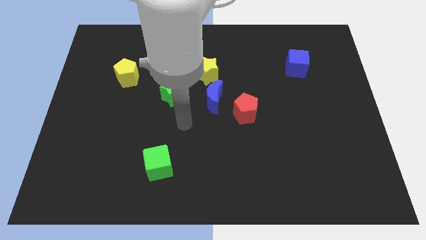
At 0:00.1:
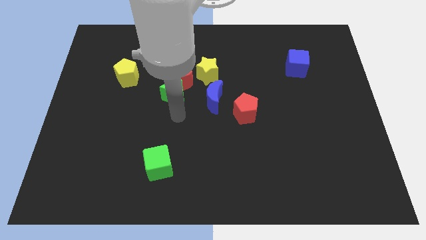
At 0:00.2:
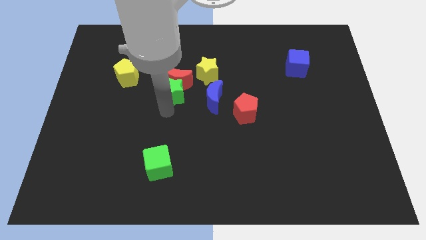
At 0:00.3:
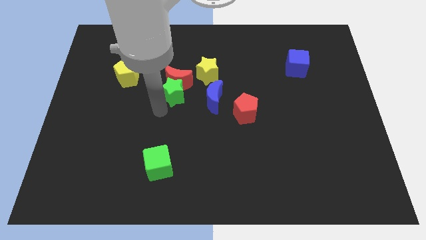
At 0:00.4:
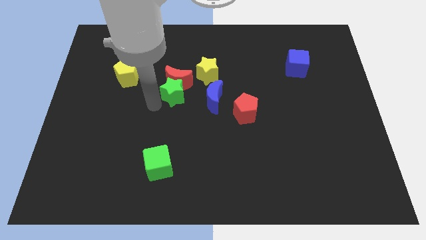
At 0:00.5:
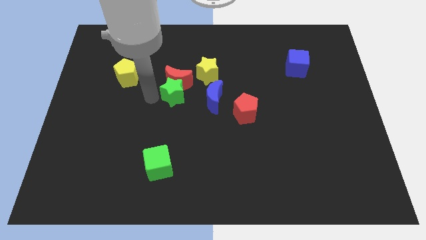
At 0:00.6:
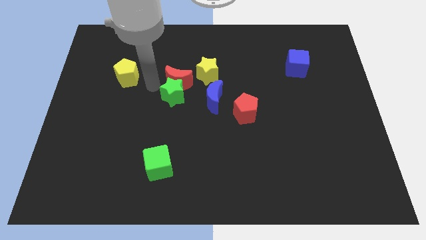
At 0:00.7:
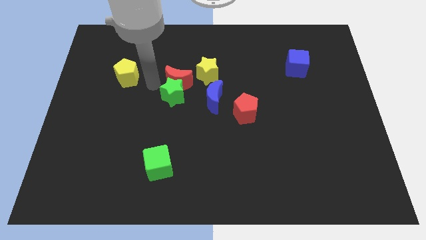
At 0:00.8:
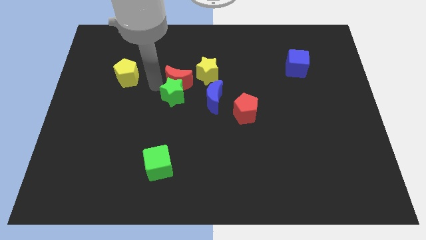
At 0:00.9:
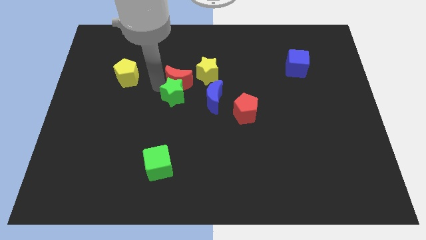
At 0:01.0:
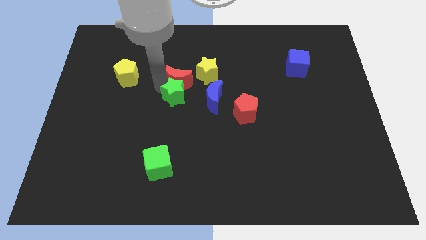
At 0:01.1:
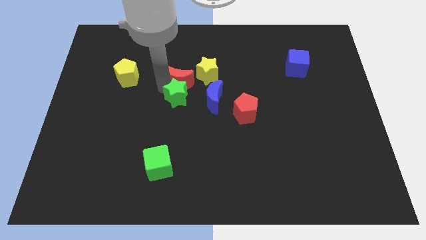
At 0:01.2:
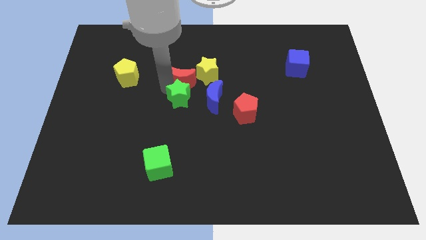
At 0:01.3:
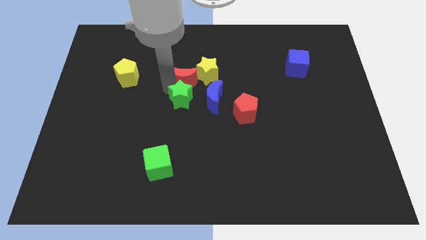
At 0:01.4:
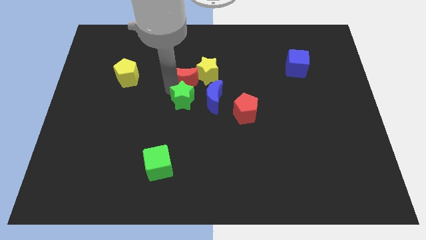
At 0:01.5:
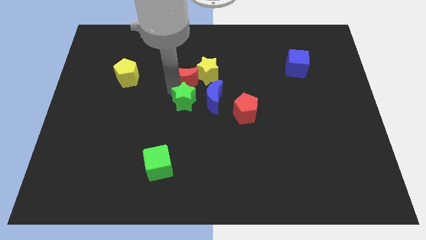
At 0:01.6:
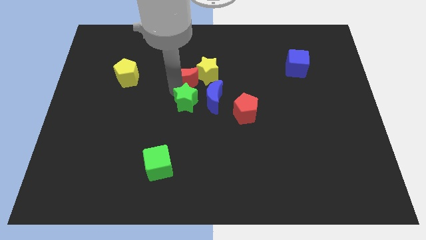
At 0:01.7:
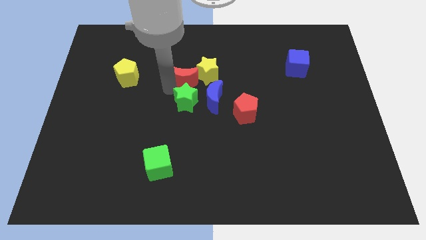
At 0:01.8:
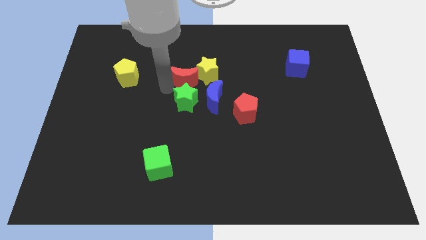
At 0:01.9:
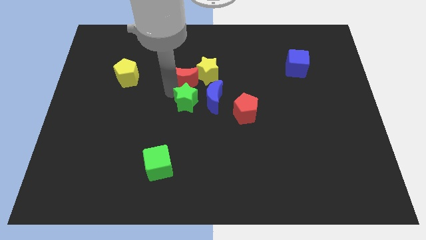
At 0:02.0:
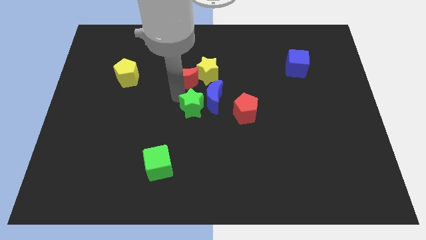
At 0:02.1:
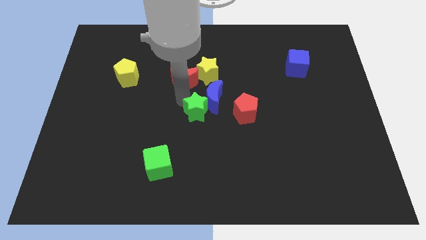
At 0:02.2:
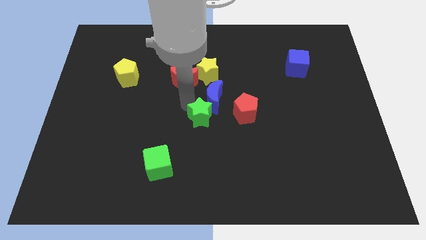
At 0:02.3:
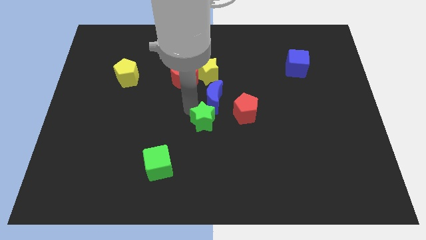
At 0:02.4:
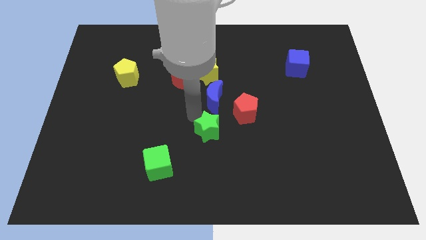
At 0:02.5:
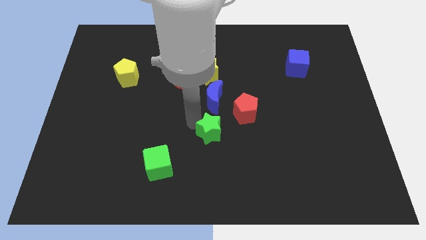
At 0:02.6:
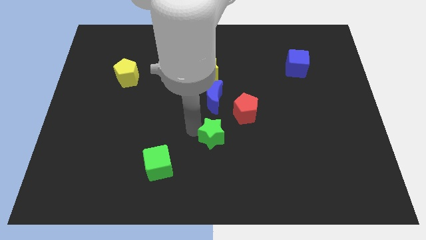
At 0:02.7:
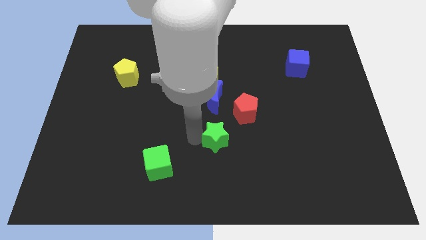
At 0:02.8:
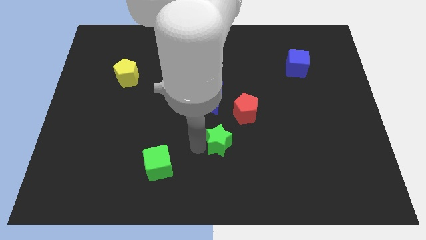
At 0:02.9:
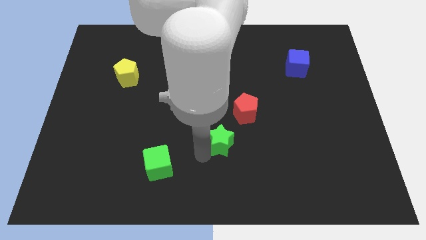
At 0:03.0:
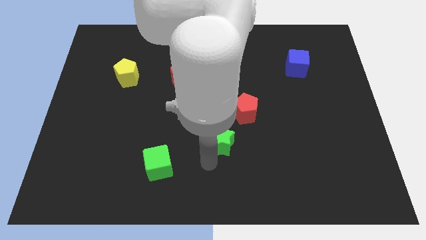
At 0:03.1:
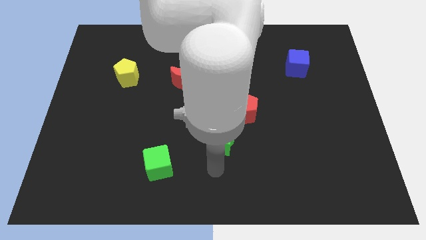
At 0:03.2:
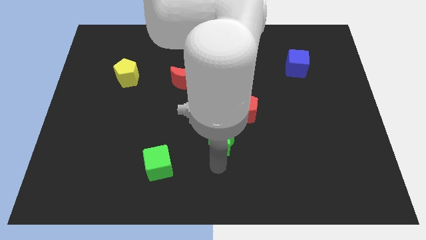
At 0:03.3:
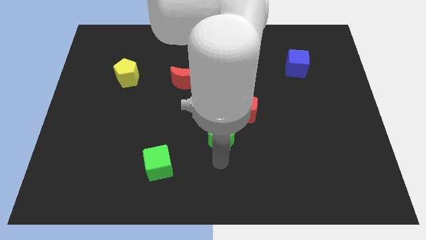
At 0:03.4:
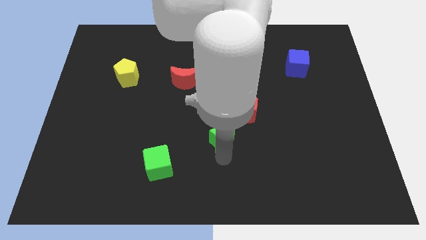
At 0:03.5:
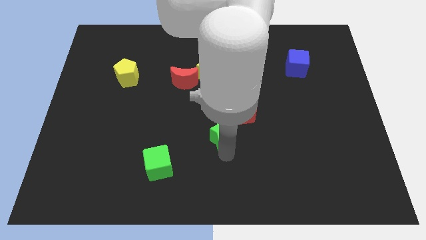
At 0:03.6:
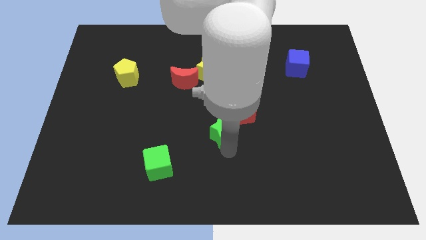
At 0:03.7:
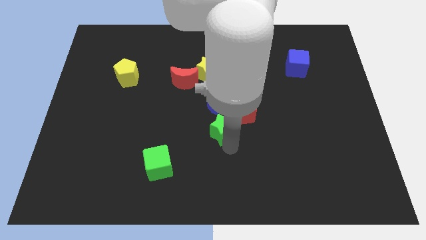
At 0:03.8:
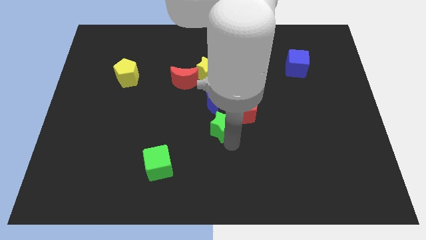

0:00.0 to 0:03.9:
slightly move the green star right

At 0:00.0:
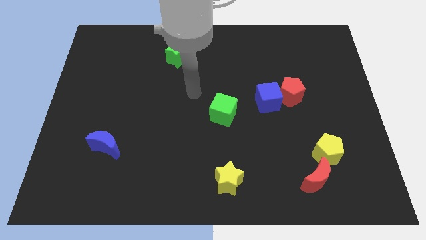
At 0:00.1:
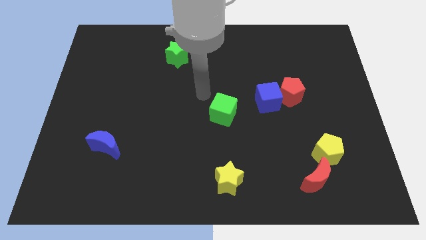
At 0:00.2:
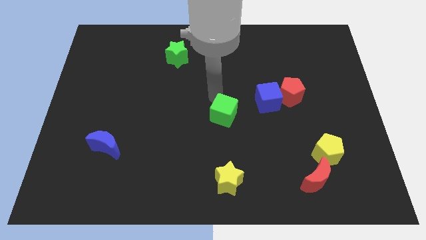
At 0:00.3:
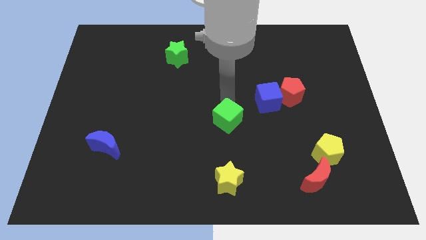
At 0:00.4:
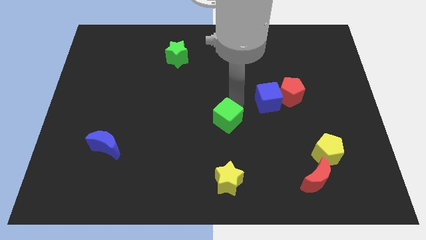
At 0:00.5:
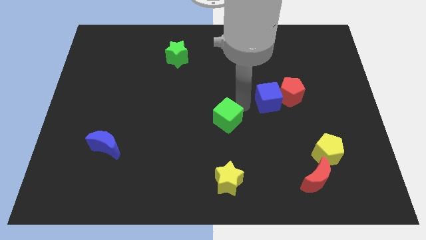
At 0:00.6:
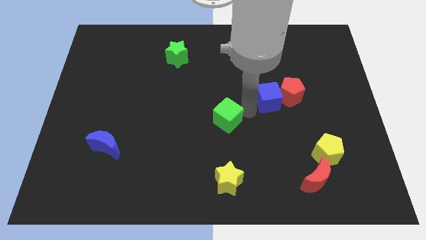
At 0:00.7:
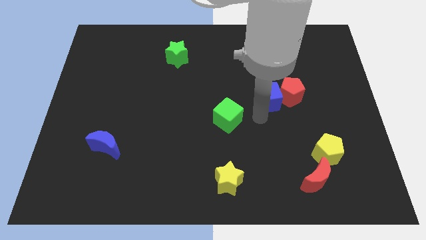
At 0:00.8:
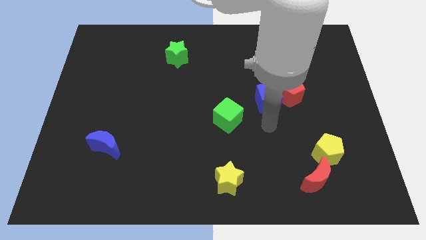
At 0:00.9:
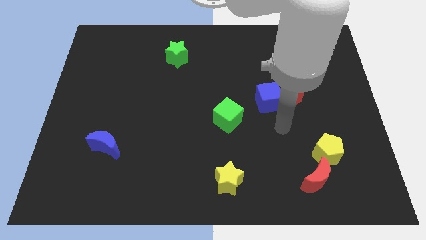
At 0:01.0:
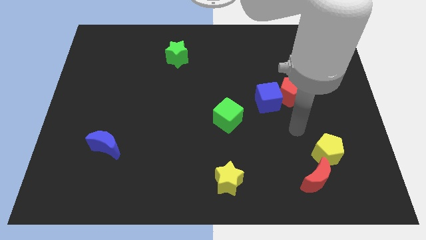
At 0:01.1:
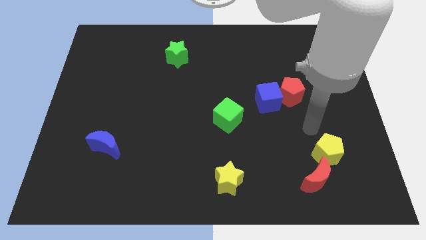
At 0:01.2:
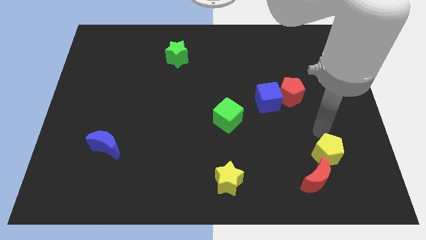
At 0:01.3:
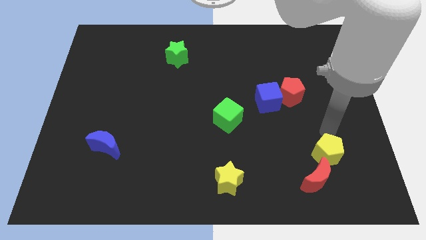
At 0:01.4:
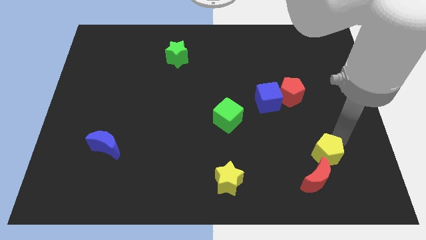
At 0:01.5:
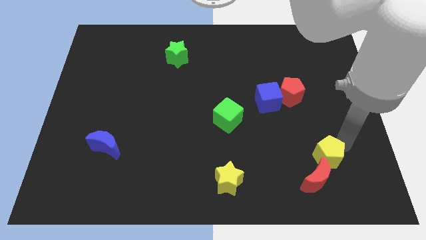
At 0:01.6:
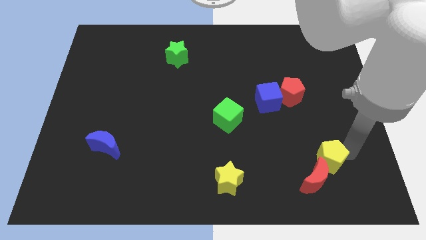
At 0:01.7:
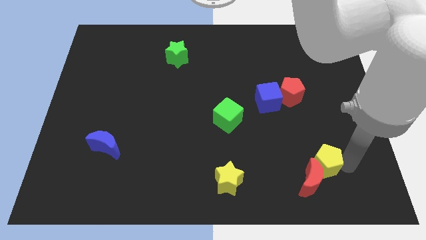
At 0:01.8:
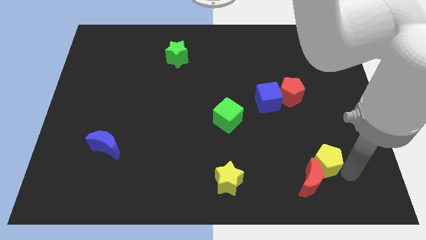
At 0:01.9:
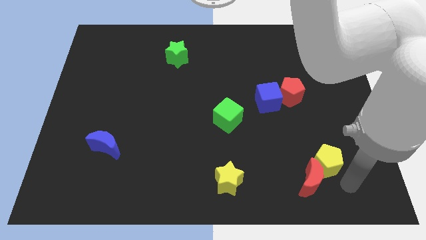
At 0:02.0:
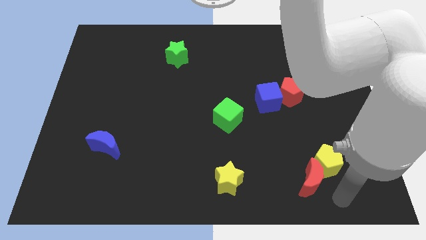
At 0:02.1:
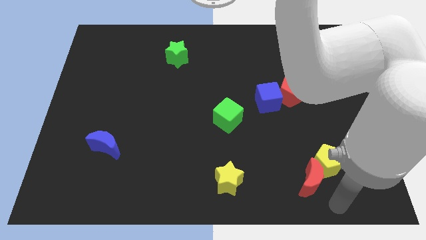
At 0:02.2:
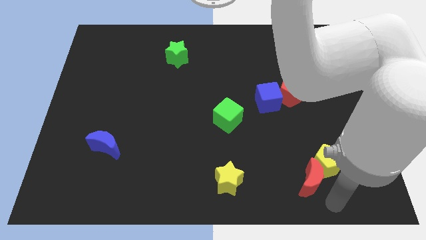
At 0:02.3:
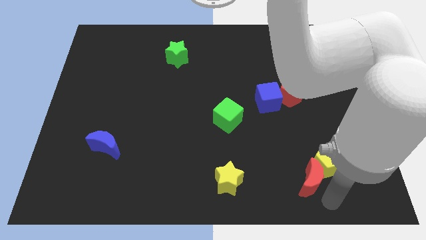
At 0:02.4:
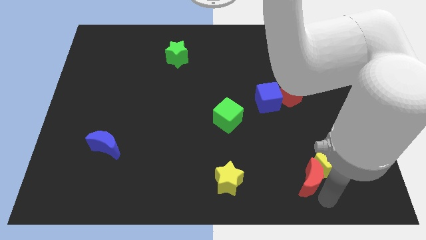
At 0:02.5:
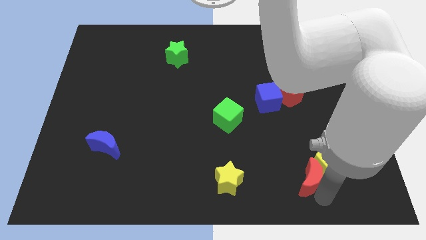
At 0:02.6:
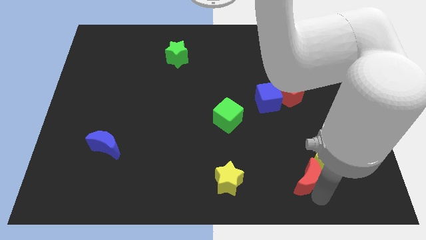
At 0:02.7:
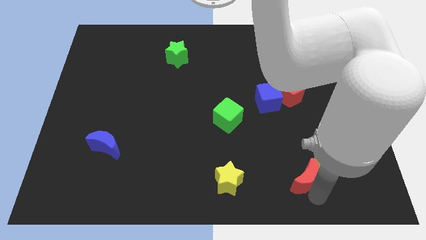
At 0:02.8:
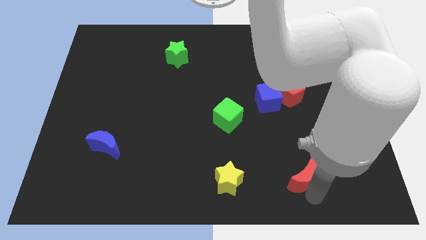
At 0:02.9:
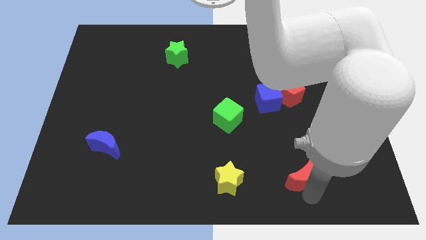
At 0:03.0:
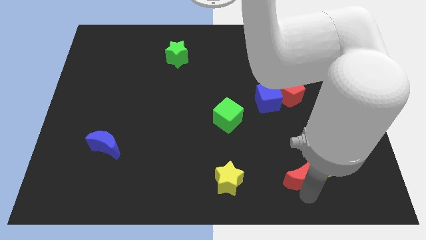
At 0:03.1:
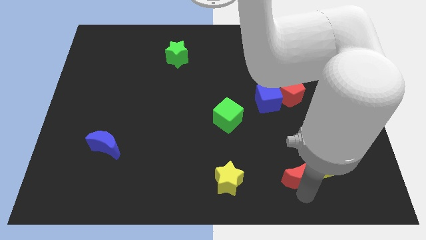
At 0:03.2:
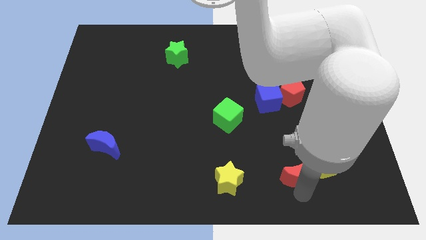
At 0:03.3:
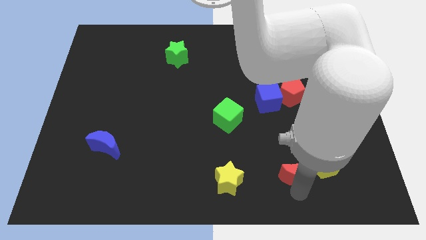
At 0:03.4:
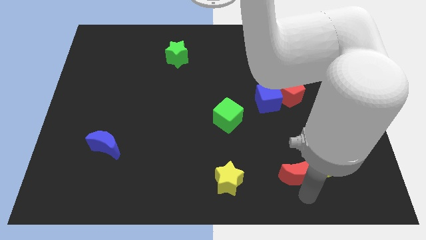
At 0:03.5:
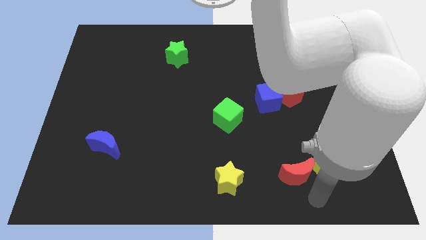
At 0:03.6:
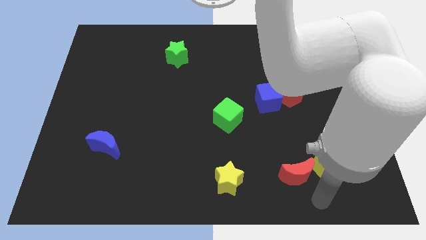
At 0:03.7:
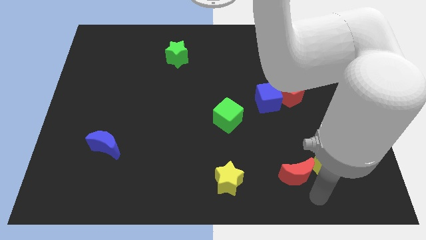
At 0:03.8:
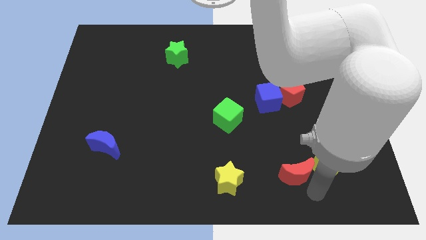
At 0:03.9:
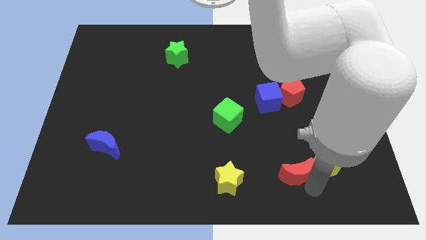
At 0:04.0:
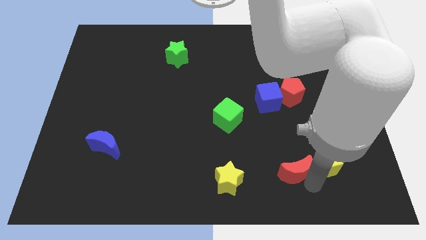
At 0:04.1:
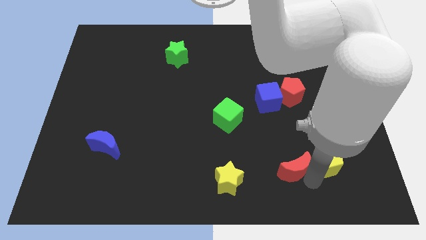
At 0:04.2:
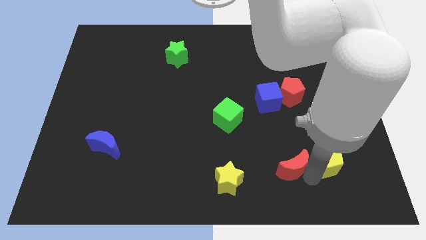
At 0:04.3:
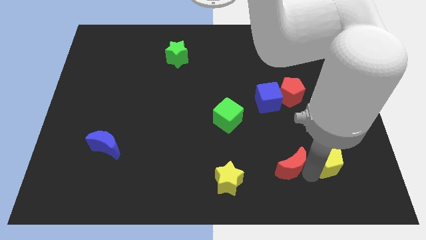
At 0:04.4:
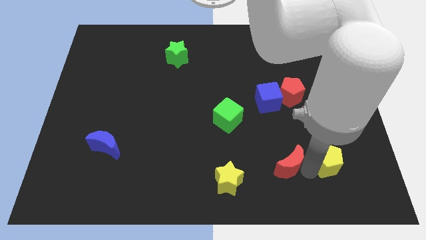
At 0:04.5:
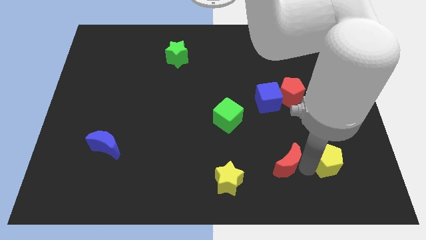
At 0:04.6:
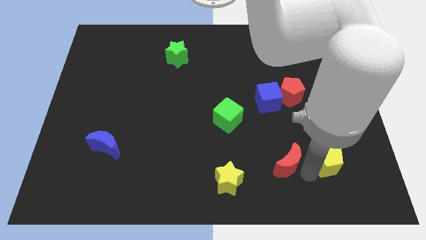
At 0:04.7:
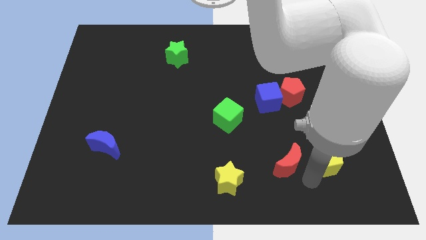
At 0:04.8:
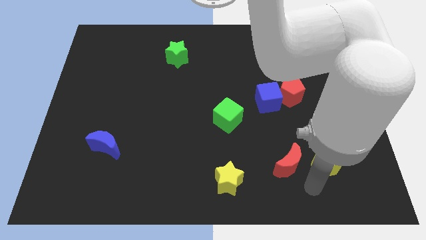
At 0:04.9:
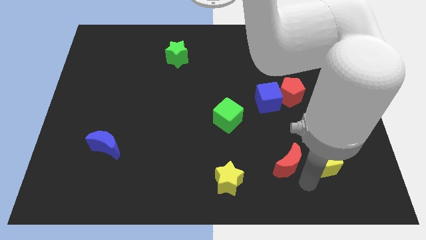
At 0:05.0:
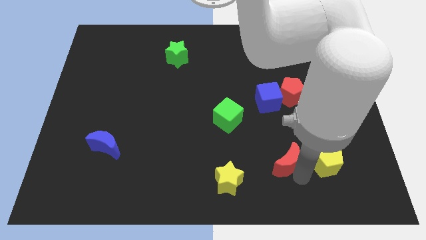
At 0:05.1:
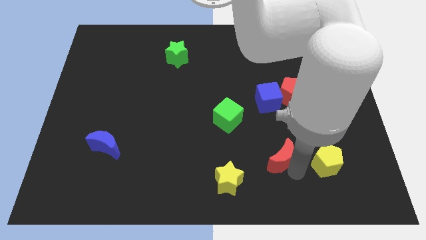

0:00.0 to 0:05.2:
slightly push the red moon up and left
